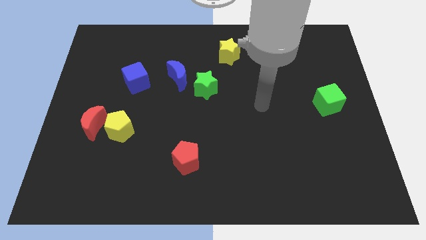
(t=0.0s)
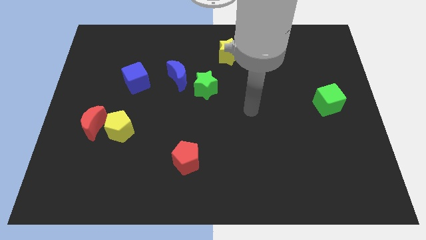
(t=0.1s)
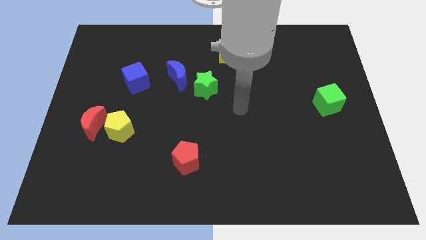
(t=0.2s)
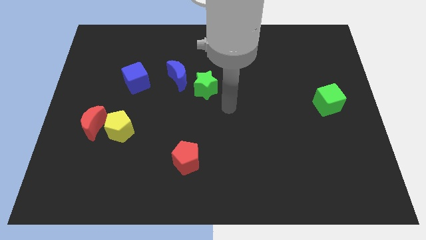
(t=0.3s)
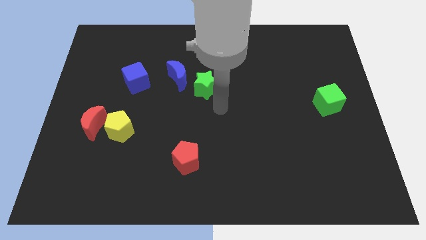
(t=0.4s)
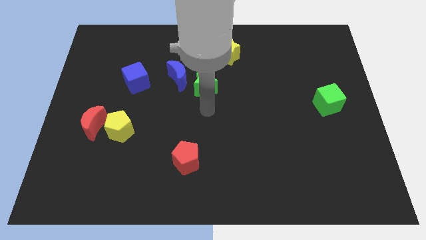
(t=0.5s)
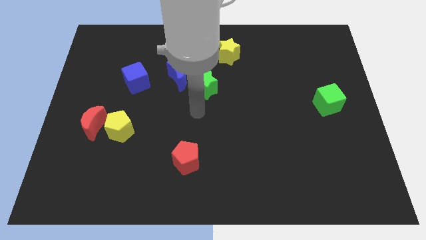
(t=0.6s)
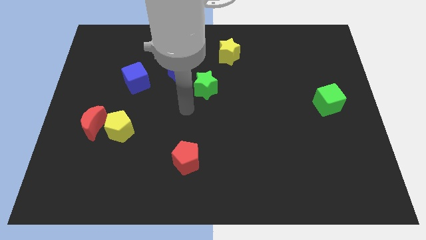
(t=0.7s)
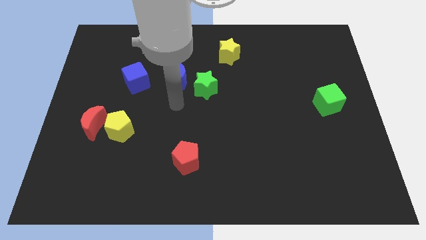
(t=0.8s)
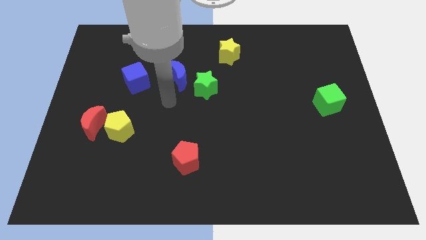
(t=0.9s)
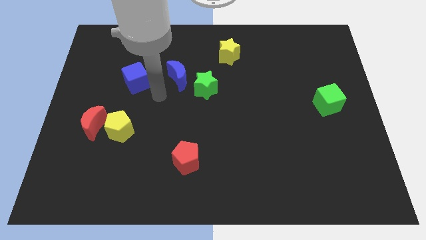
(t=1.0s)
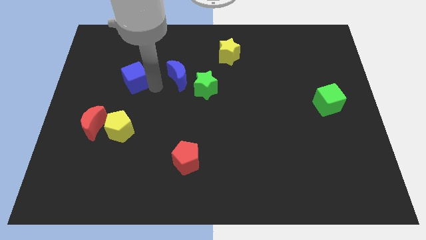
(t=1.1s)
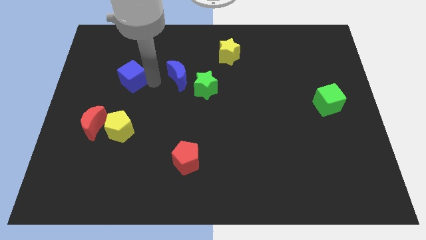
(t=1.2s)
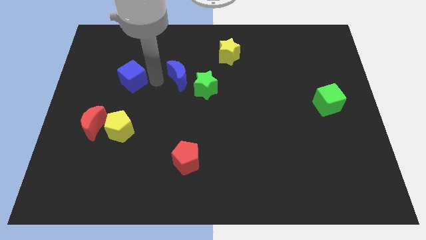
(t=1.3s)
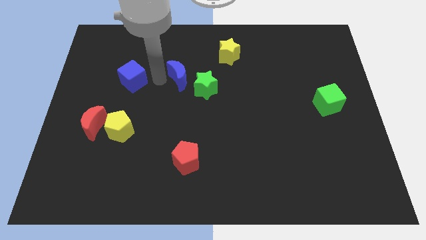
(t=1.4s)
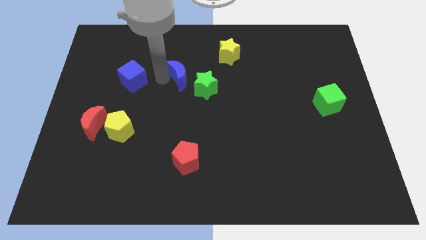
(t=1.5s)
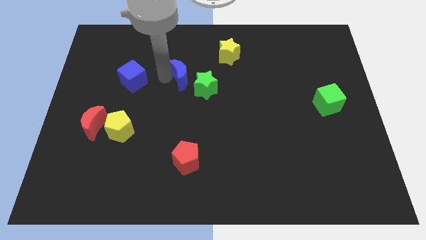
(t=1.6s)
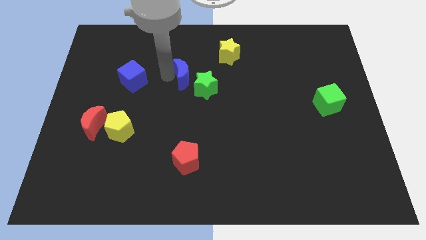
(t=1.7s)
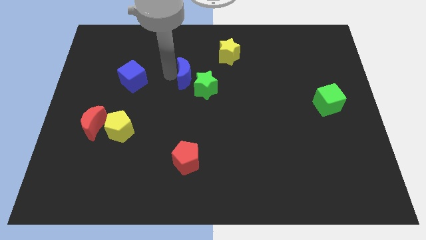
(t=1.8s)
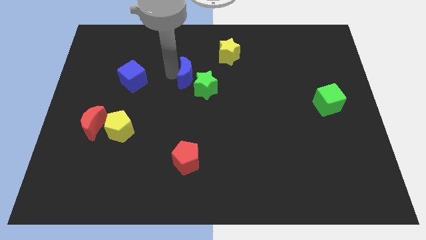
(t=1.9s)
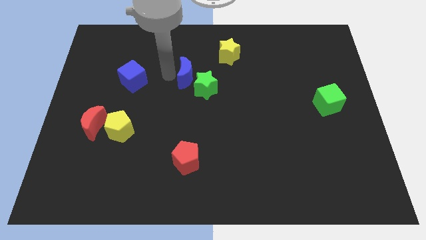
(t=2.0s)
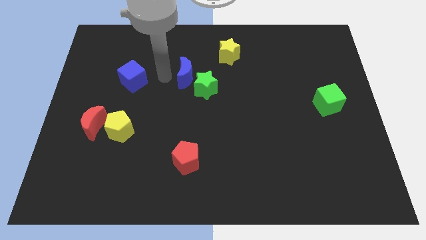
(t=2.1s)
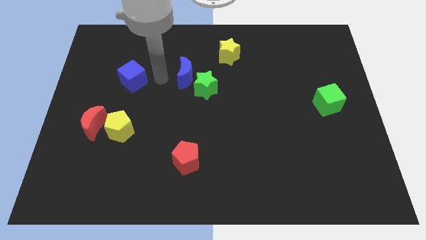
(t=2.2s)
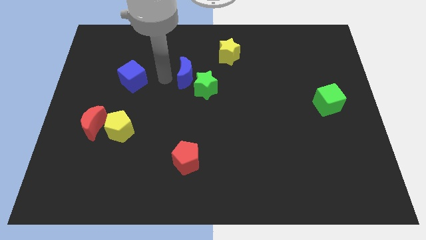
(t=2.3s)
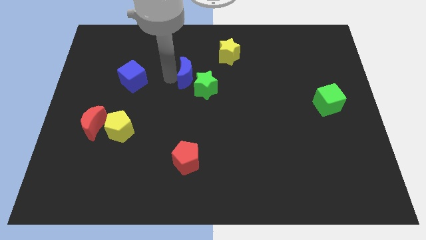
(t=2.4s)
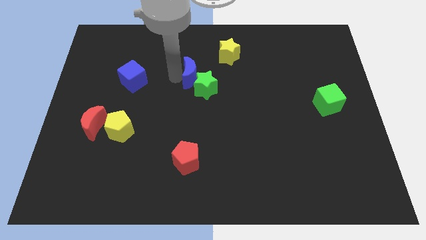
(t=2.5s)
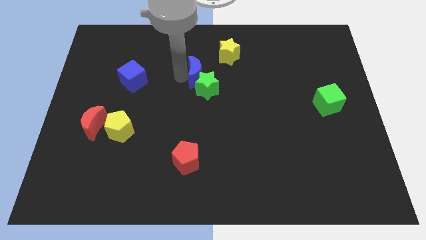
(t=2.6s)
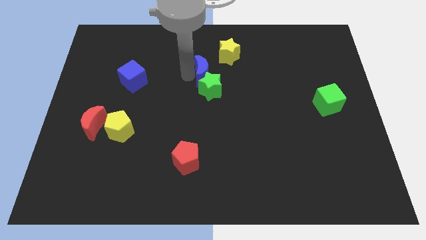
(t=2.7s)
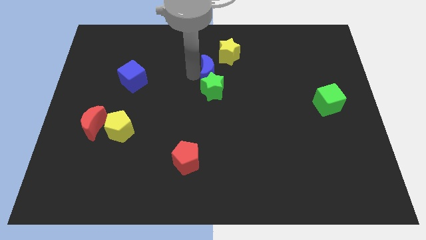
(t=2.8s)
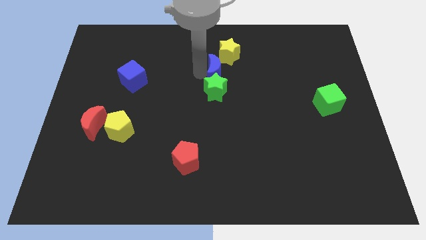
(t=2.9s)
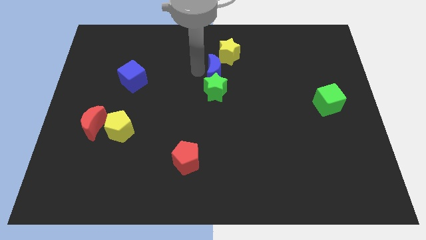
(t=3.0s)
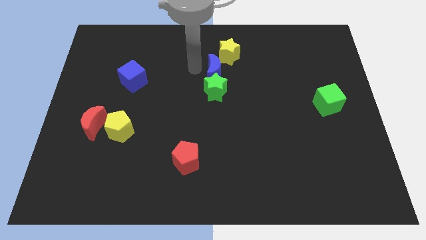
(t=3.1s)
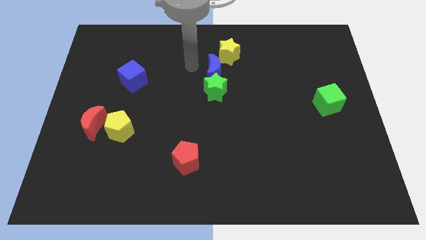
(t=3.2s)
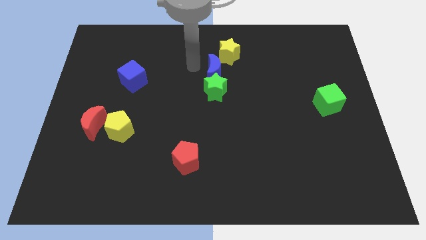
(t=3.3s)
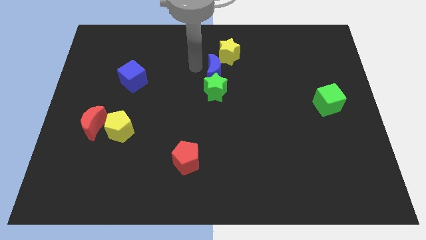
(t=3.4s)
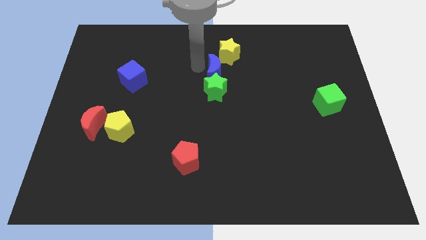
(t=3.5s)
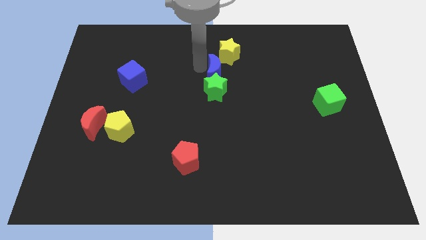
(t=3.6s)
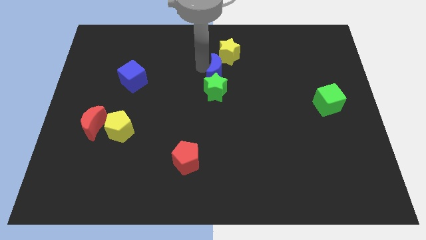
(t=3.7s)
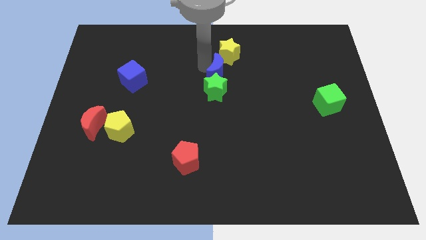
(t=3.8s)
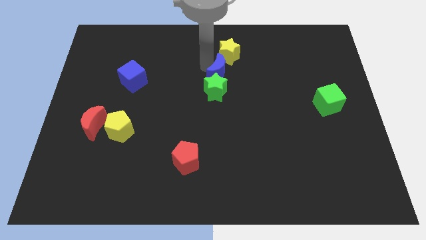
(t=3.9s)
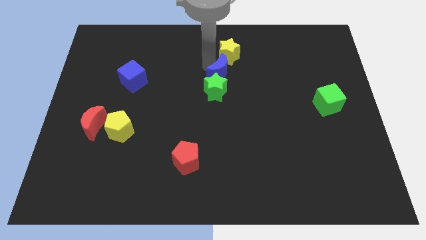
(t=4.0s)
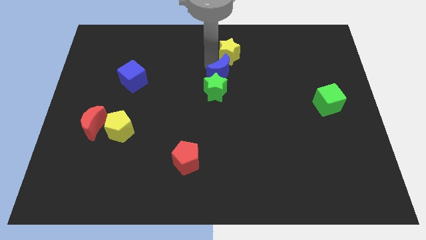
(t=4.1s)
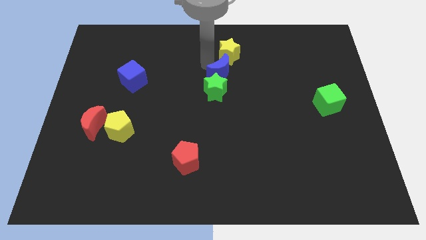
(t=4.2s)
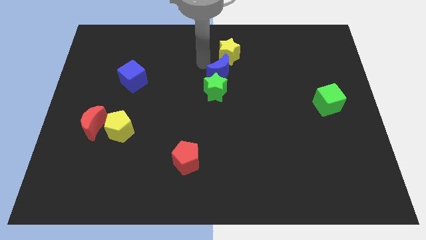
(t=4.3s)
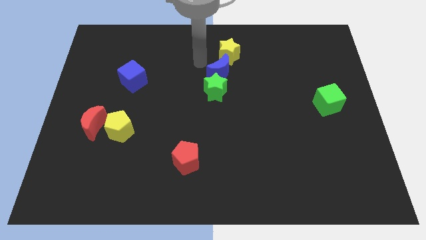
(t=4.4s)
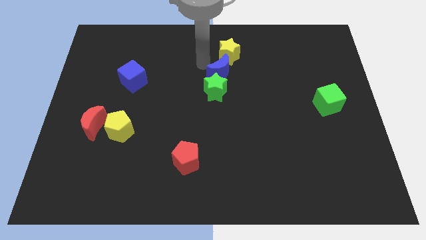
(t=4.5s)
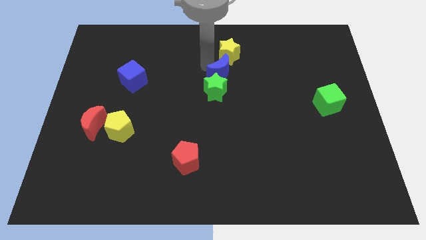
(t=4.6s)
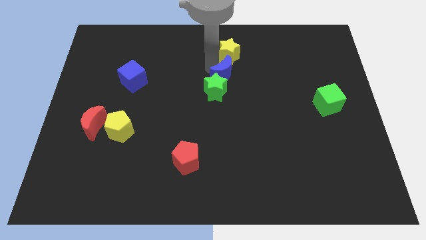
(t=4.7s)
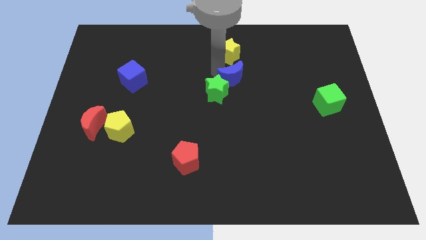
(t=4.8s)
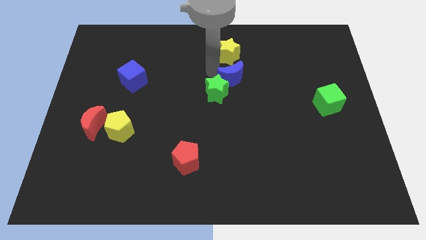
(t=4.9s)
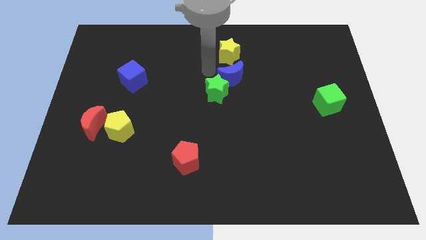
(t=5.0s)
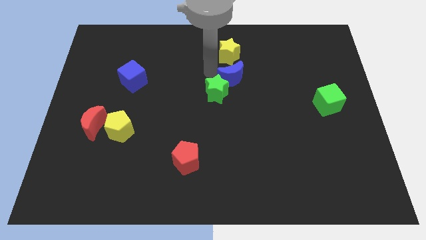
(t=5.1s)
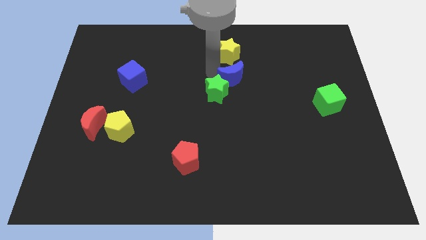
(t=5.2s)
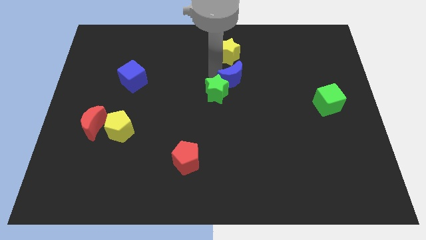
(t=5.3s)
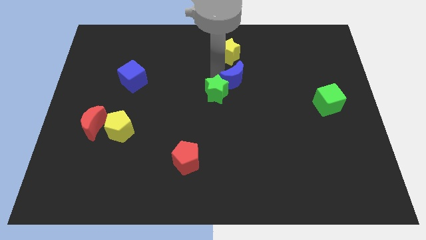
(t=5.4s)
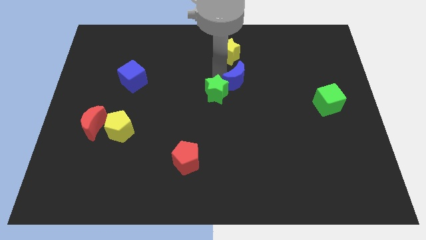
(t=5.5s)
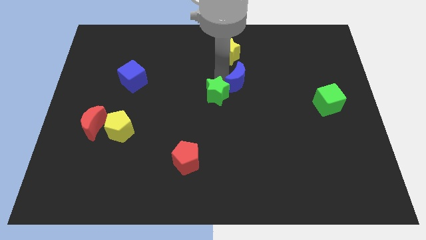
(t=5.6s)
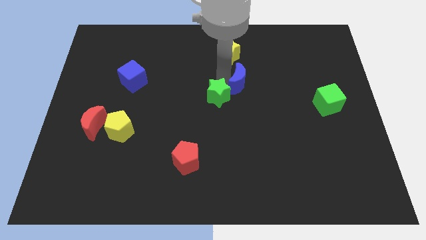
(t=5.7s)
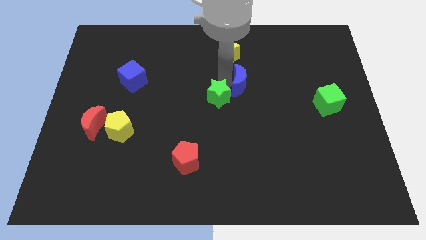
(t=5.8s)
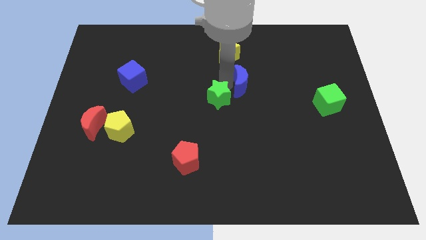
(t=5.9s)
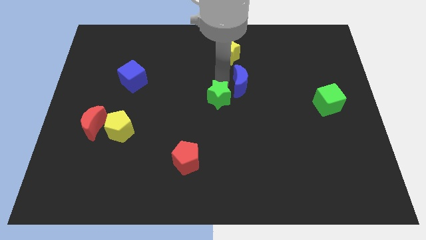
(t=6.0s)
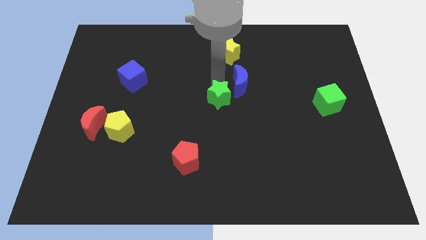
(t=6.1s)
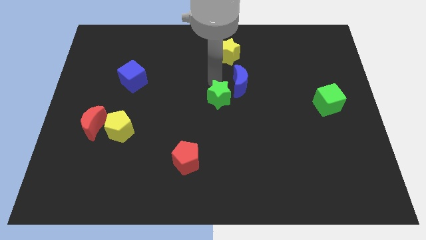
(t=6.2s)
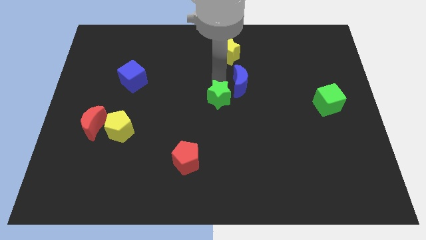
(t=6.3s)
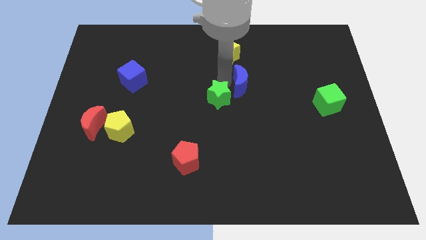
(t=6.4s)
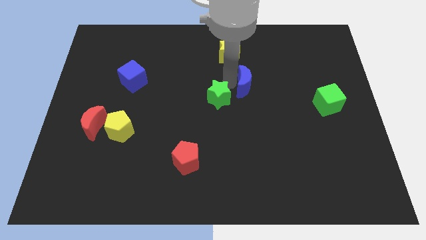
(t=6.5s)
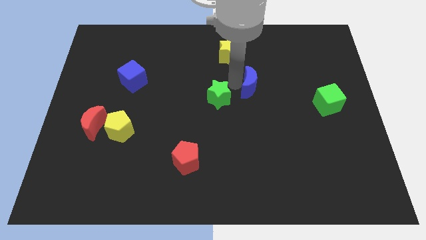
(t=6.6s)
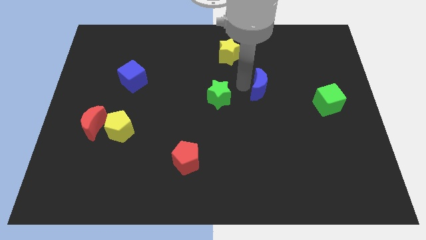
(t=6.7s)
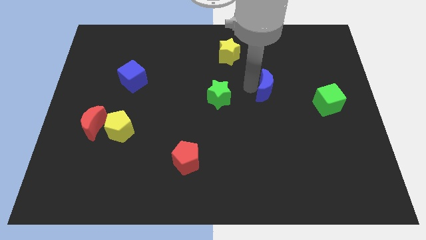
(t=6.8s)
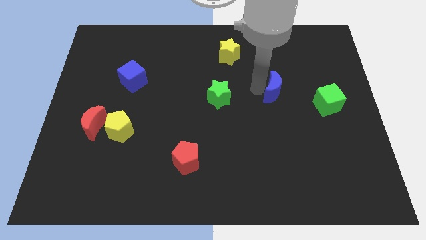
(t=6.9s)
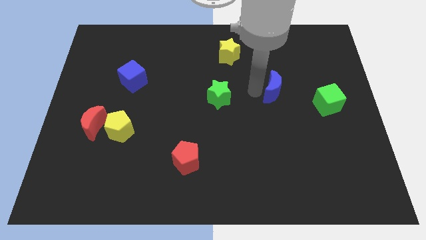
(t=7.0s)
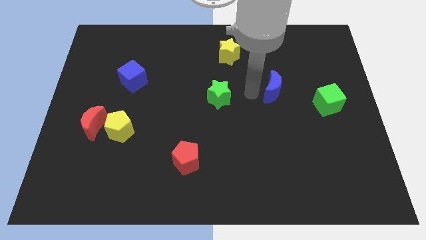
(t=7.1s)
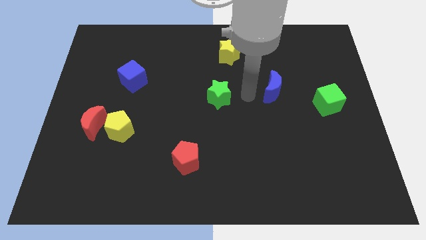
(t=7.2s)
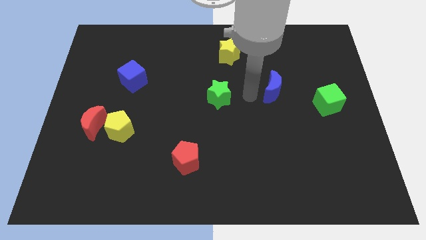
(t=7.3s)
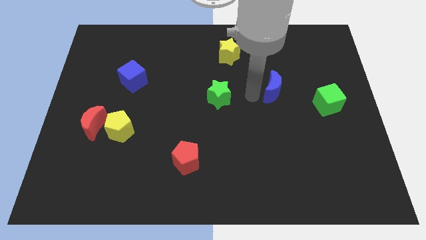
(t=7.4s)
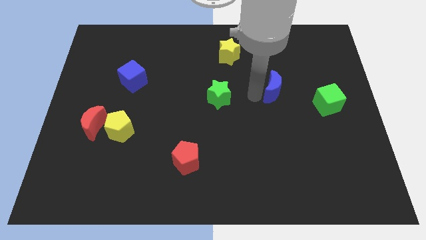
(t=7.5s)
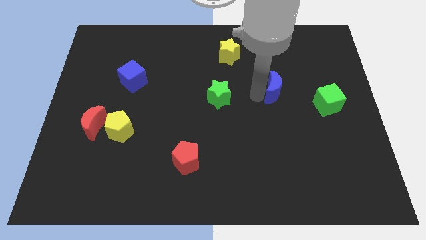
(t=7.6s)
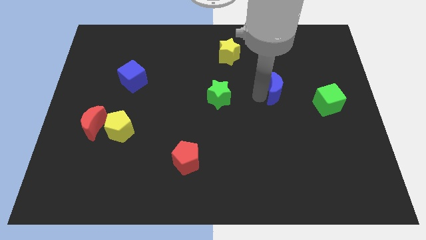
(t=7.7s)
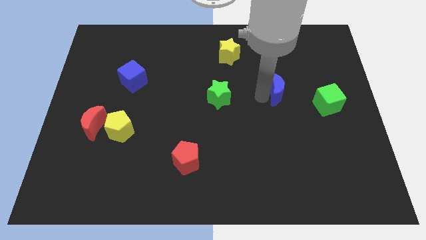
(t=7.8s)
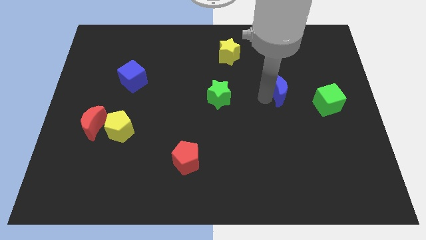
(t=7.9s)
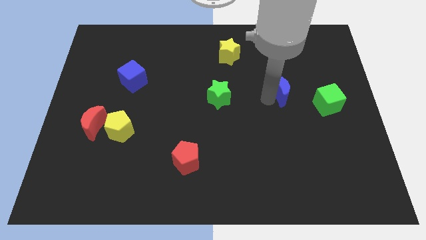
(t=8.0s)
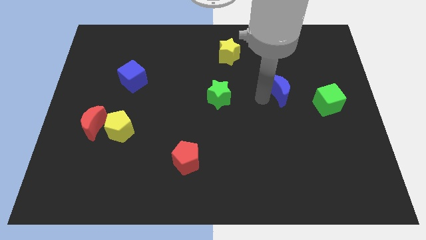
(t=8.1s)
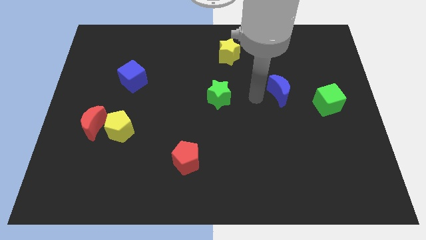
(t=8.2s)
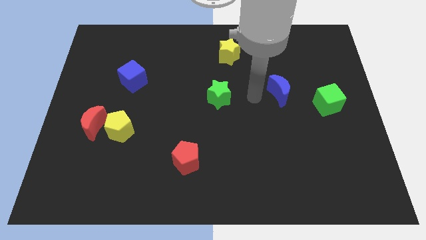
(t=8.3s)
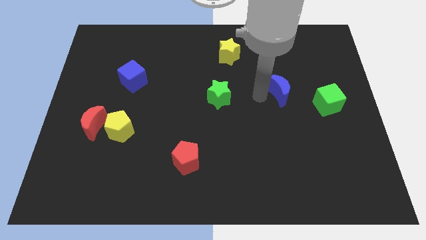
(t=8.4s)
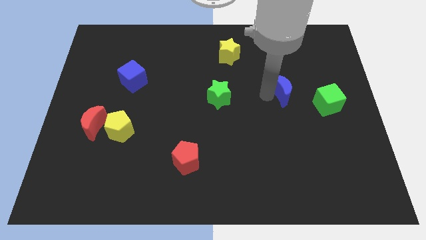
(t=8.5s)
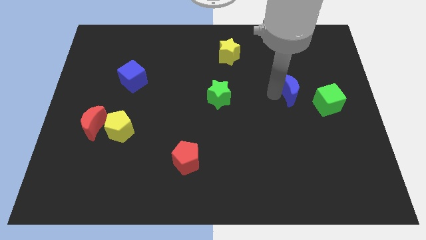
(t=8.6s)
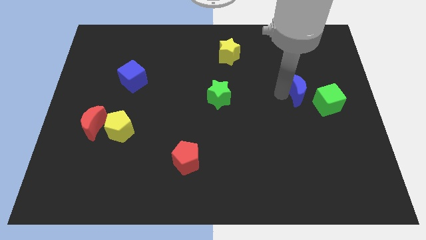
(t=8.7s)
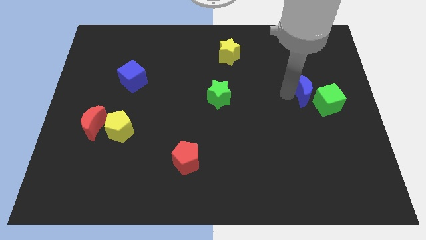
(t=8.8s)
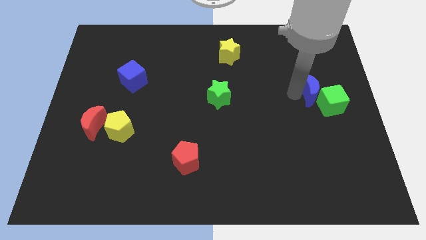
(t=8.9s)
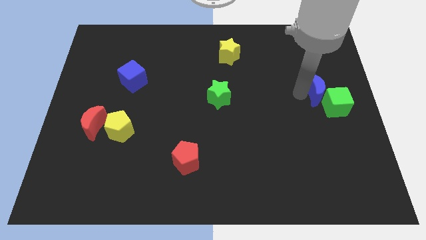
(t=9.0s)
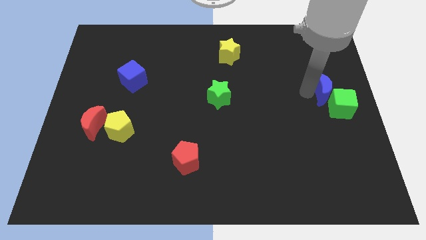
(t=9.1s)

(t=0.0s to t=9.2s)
move the blue moon to the right side
